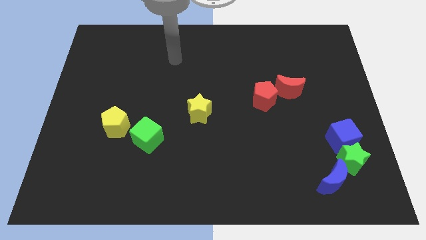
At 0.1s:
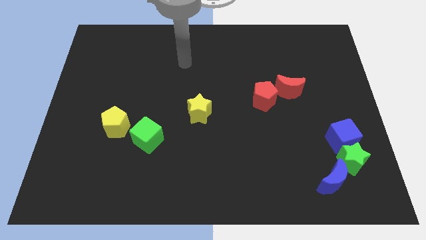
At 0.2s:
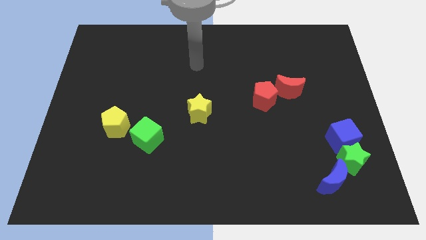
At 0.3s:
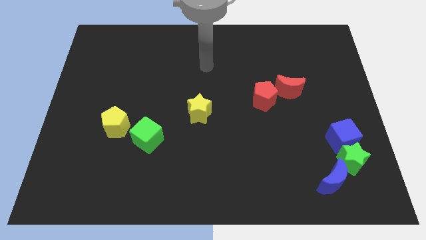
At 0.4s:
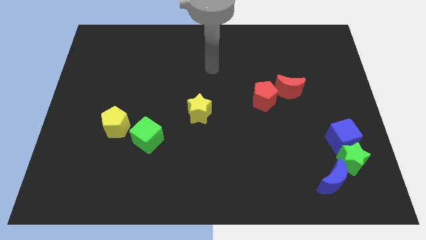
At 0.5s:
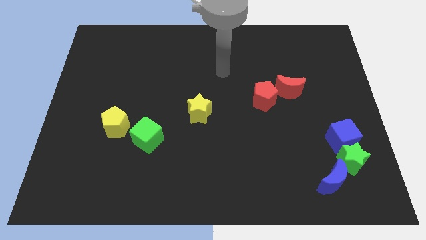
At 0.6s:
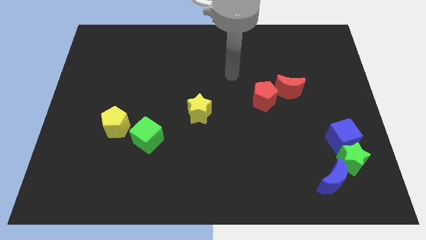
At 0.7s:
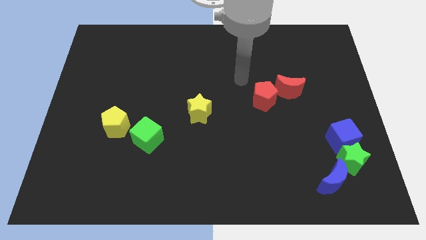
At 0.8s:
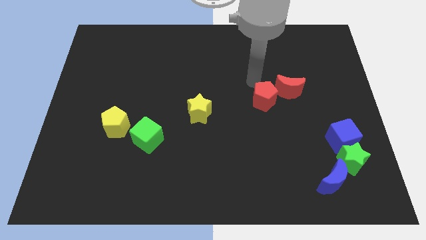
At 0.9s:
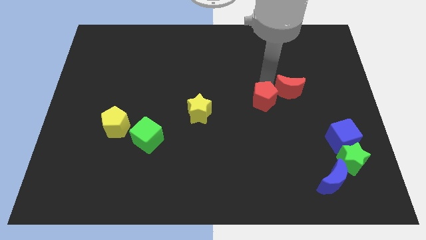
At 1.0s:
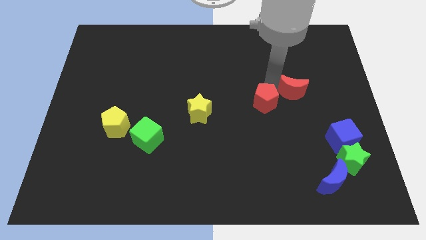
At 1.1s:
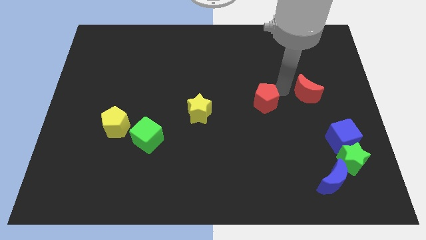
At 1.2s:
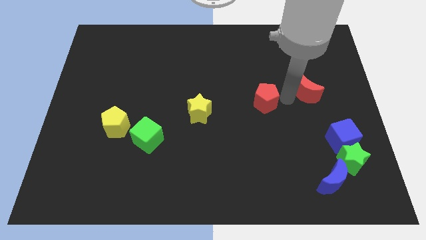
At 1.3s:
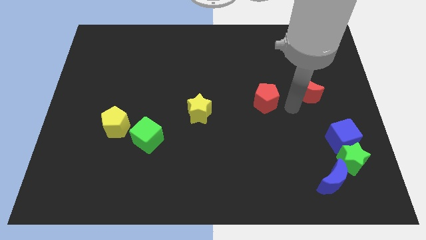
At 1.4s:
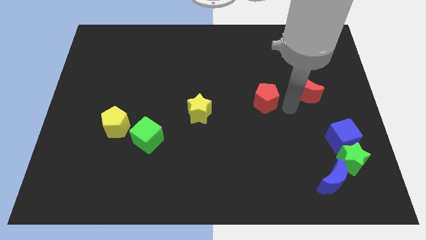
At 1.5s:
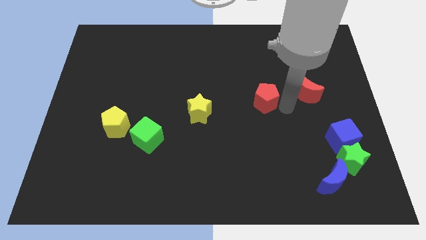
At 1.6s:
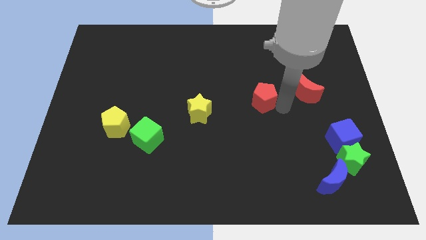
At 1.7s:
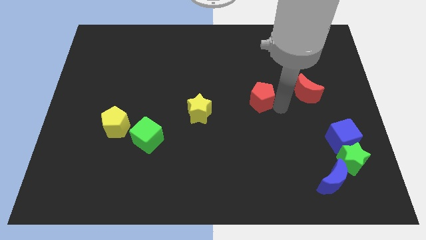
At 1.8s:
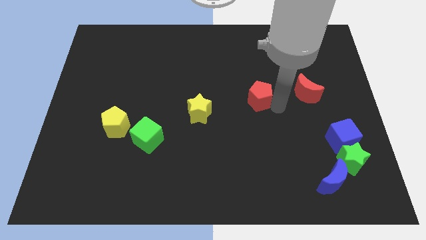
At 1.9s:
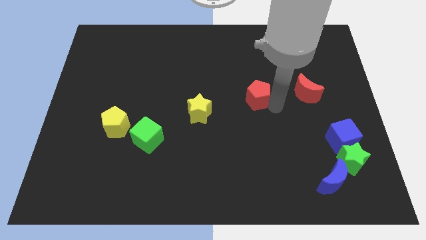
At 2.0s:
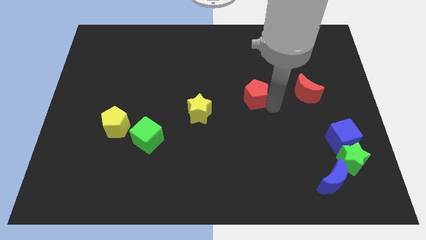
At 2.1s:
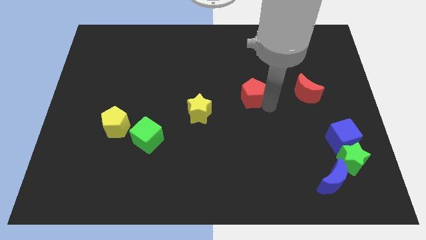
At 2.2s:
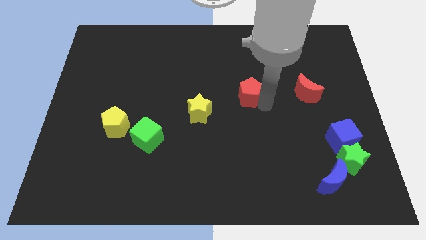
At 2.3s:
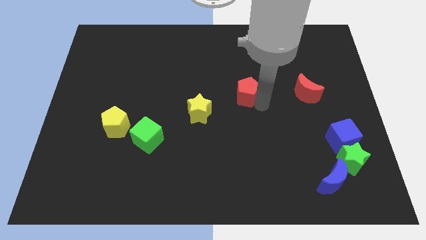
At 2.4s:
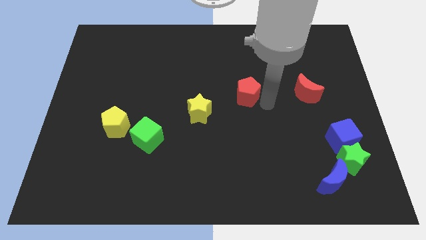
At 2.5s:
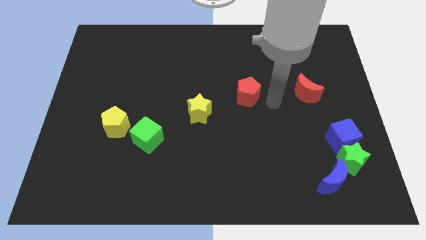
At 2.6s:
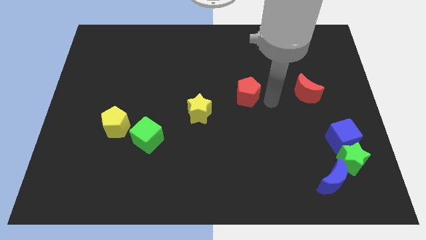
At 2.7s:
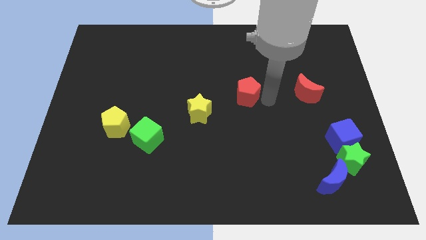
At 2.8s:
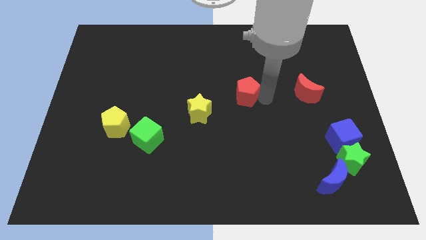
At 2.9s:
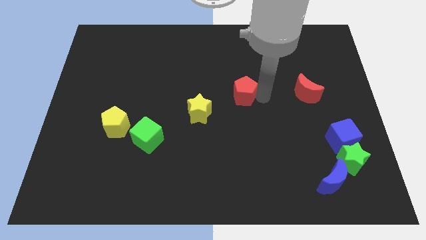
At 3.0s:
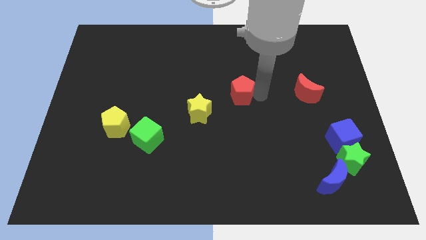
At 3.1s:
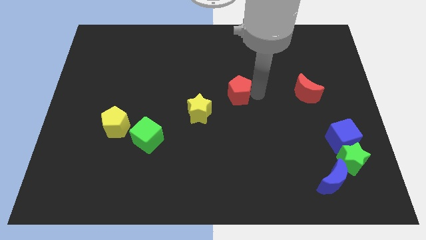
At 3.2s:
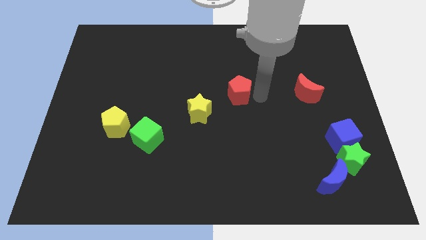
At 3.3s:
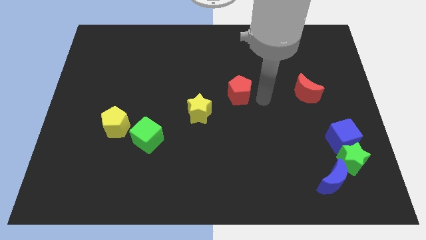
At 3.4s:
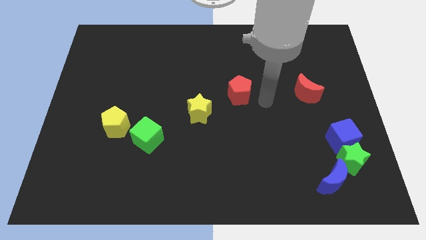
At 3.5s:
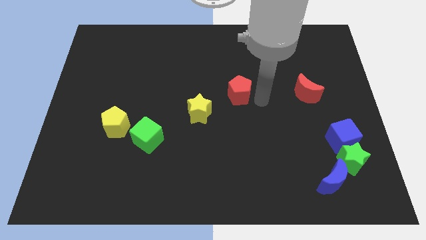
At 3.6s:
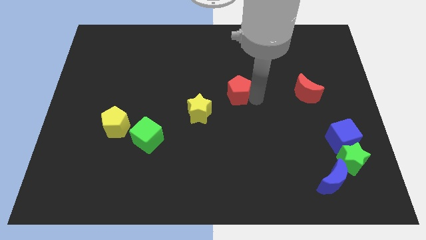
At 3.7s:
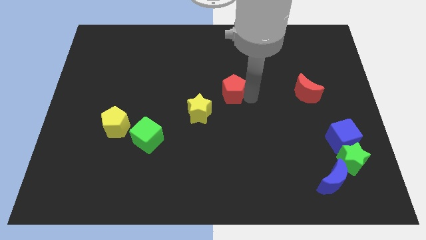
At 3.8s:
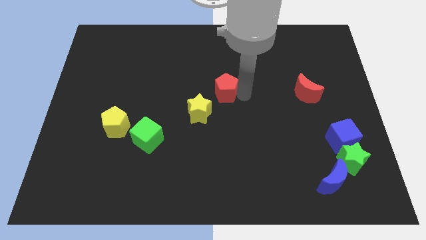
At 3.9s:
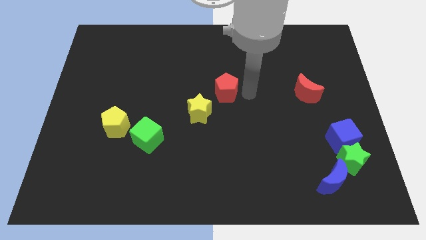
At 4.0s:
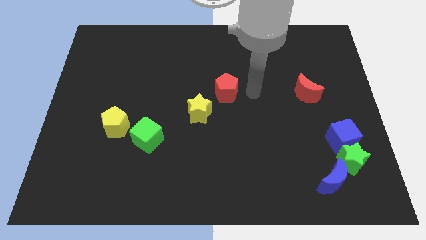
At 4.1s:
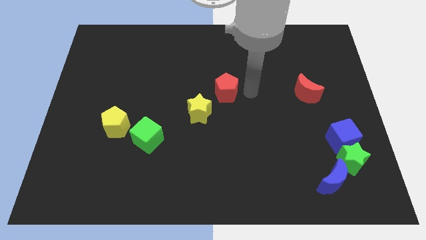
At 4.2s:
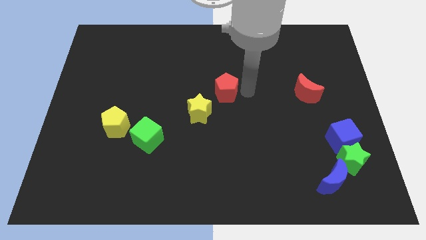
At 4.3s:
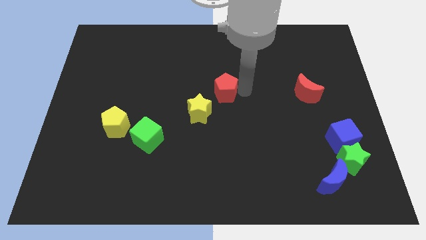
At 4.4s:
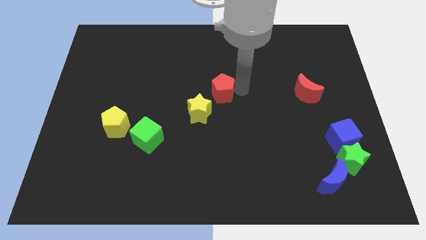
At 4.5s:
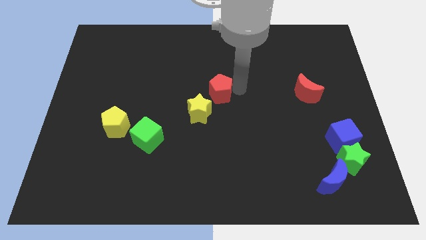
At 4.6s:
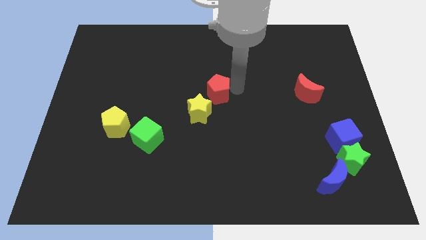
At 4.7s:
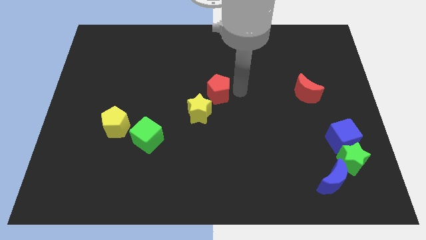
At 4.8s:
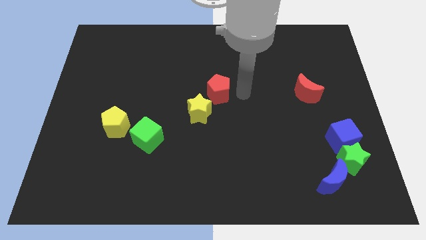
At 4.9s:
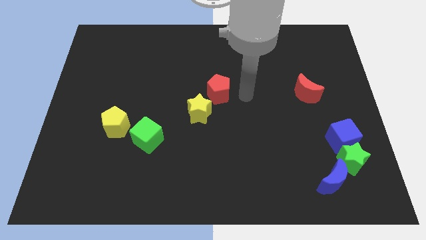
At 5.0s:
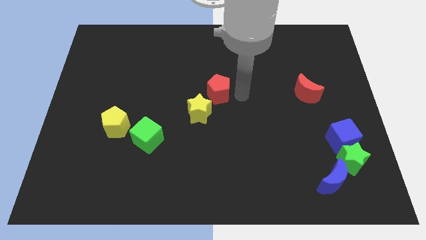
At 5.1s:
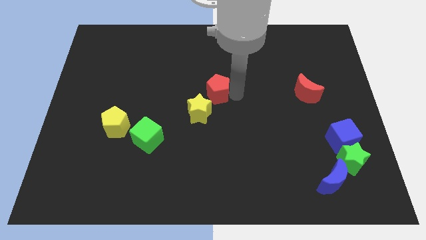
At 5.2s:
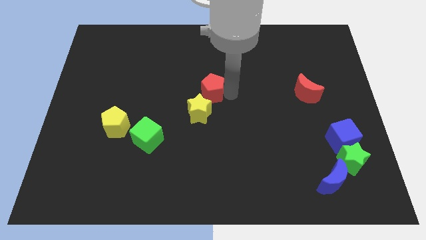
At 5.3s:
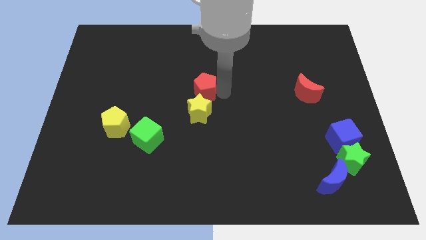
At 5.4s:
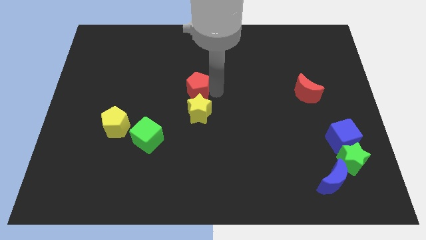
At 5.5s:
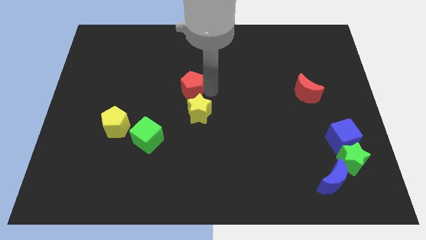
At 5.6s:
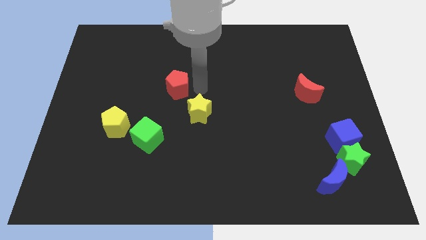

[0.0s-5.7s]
push the red pentagon left

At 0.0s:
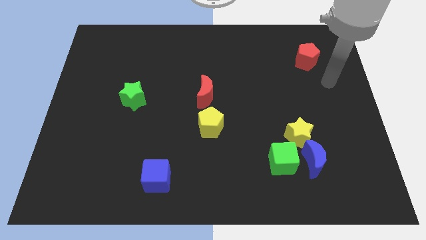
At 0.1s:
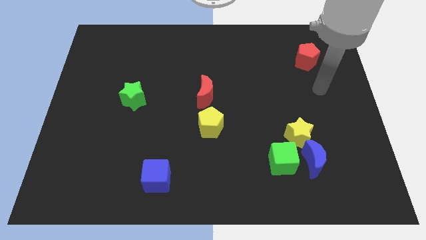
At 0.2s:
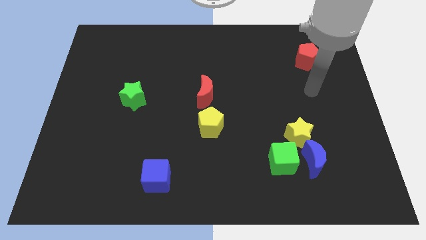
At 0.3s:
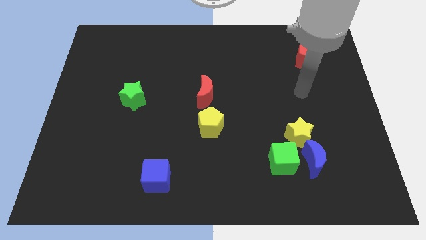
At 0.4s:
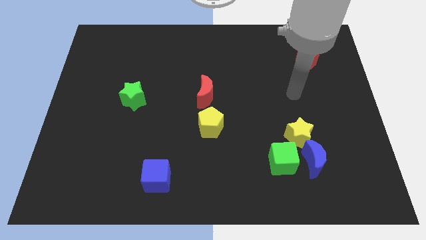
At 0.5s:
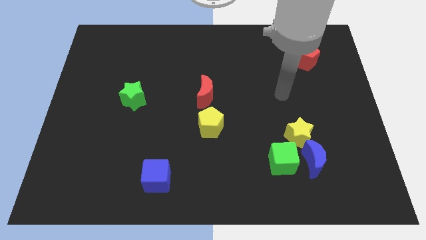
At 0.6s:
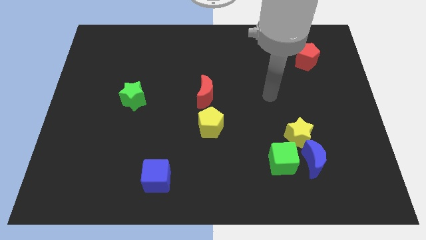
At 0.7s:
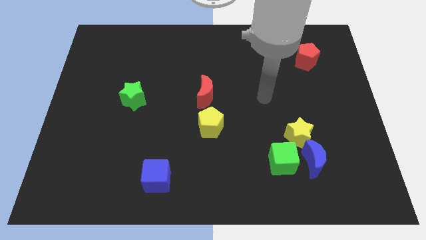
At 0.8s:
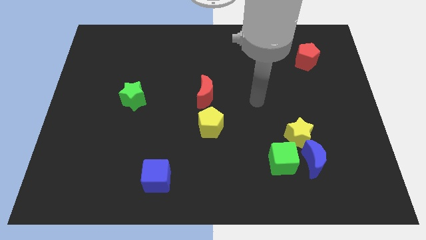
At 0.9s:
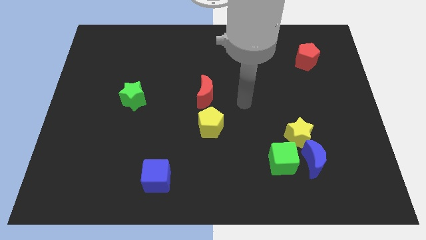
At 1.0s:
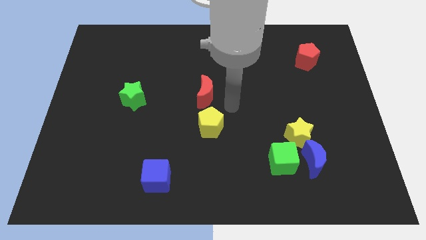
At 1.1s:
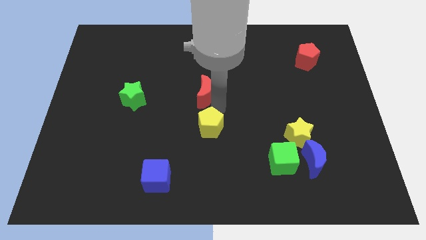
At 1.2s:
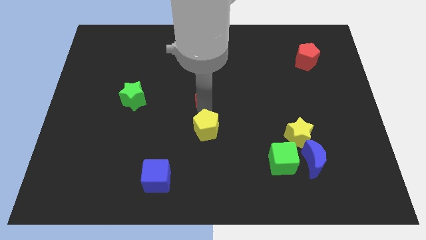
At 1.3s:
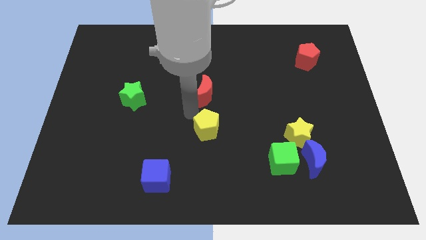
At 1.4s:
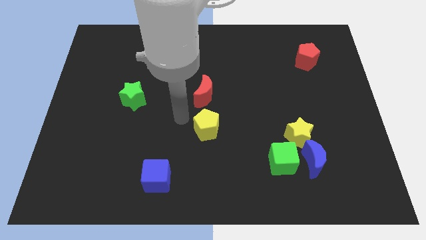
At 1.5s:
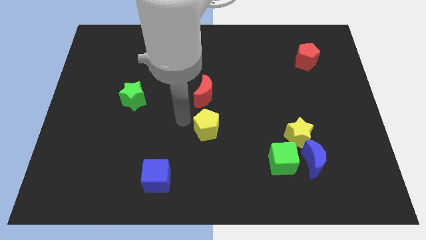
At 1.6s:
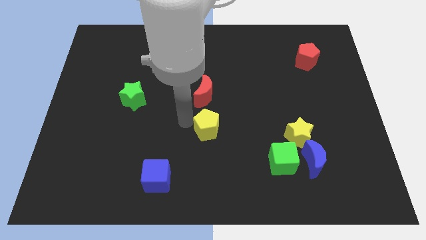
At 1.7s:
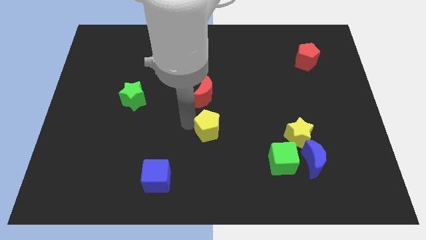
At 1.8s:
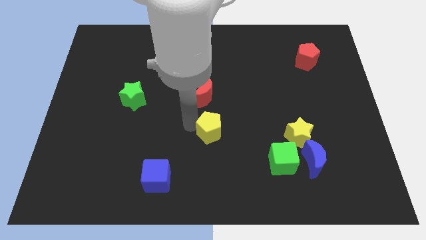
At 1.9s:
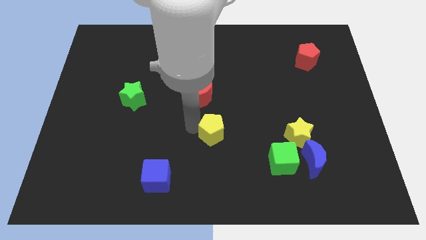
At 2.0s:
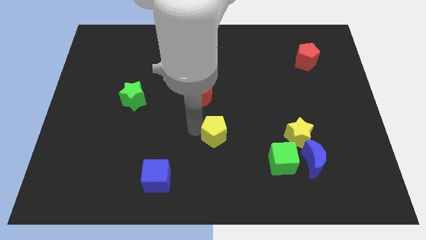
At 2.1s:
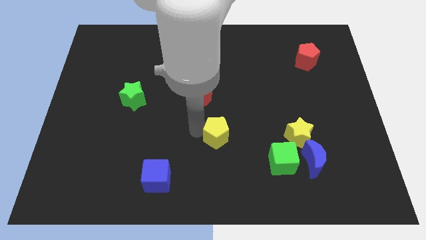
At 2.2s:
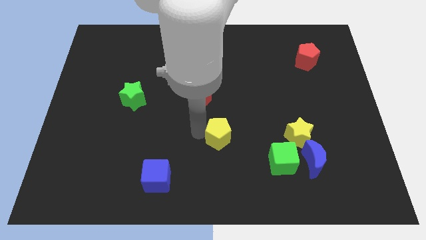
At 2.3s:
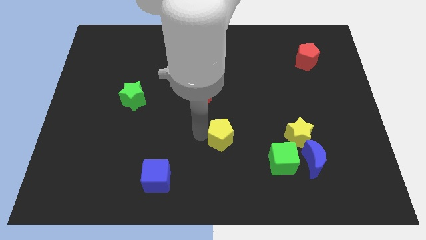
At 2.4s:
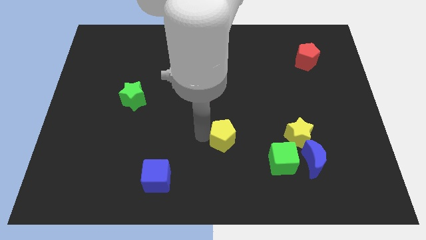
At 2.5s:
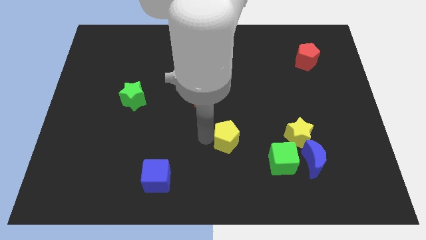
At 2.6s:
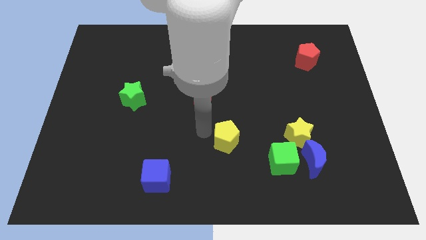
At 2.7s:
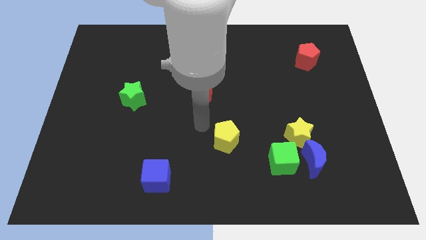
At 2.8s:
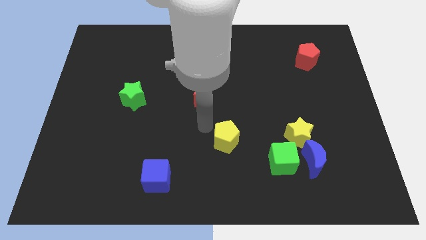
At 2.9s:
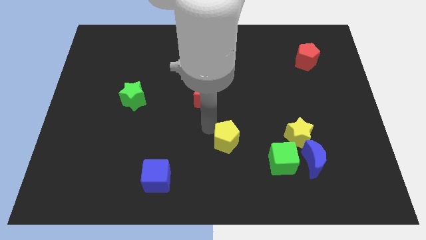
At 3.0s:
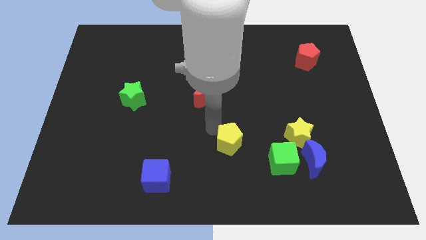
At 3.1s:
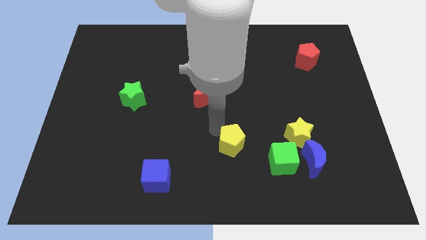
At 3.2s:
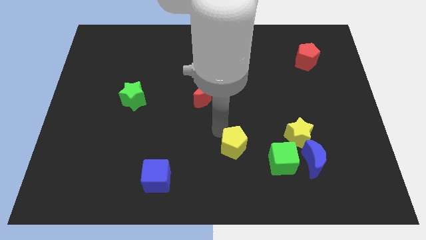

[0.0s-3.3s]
move the yellow pentagon down and to the right a bit
